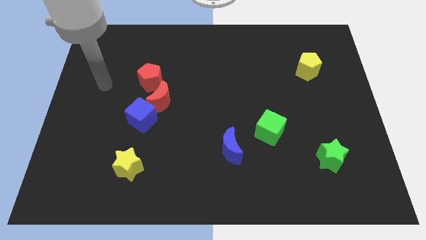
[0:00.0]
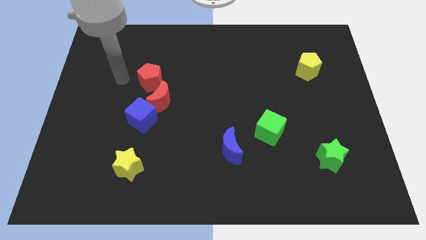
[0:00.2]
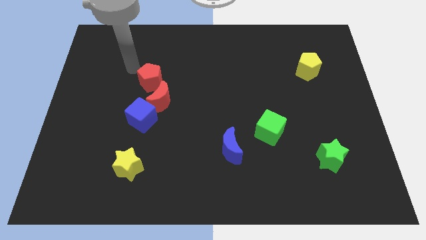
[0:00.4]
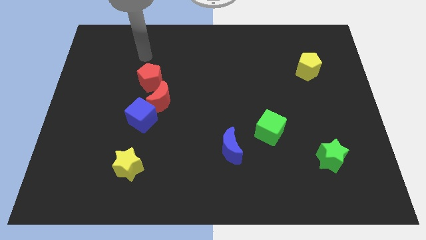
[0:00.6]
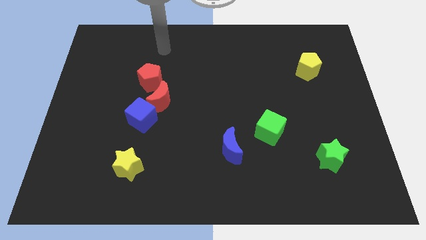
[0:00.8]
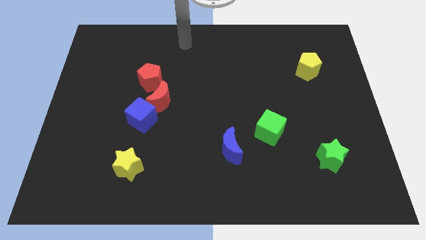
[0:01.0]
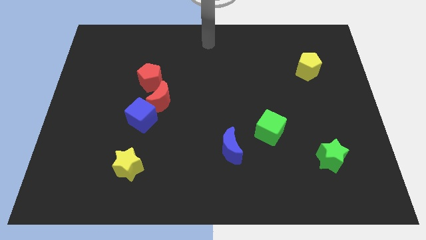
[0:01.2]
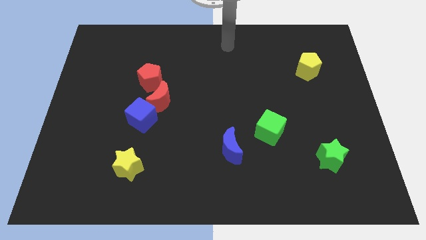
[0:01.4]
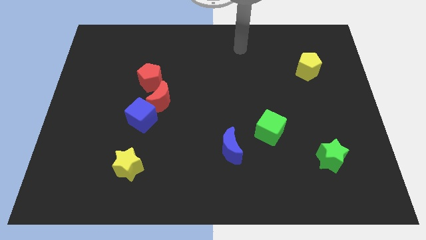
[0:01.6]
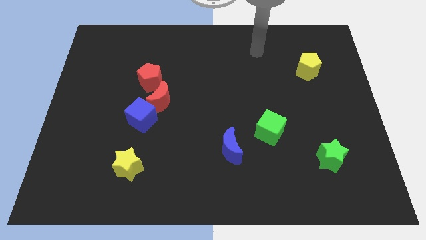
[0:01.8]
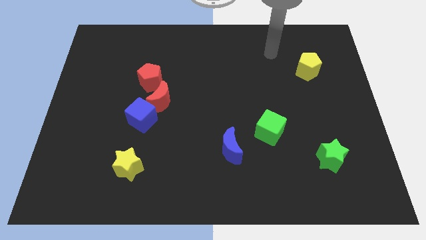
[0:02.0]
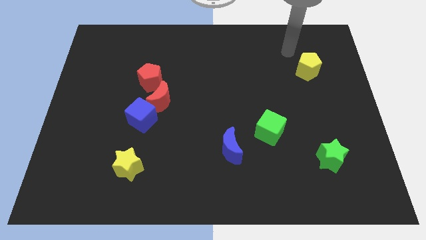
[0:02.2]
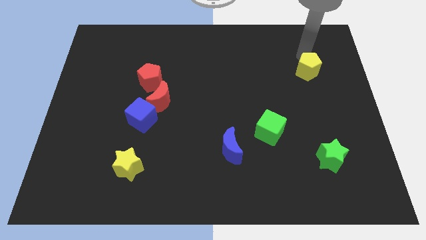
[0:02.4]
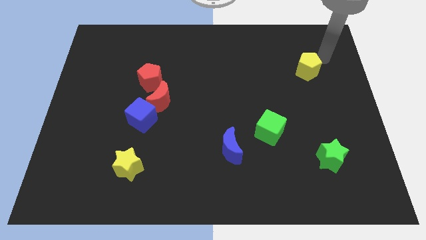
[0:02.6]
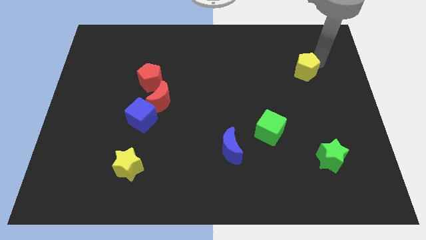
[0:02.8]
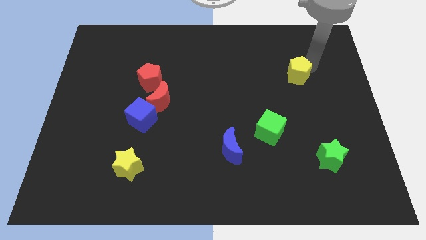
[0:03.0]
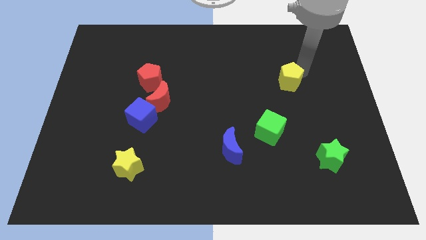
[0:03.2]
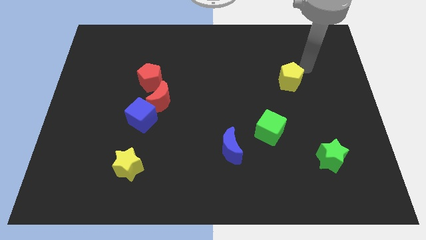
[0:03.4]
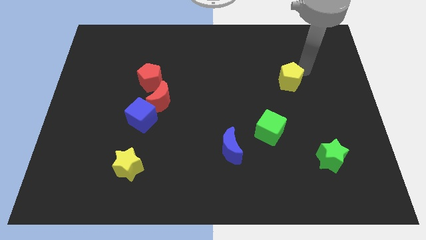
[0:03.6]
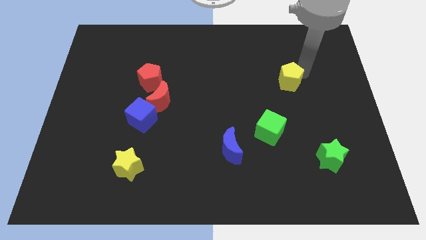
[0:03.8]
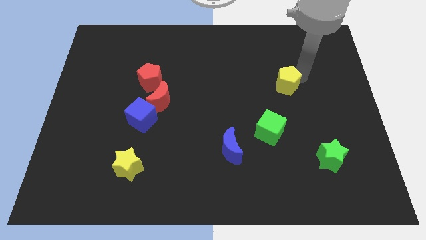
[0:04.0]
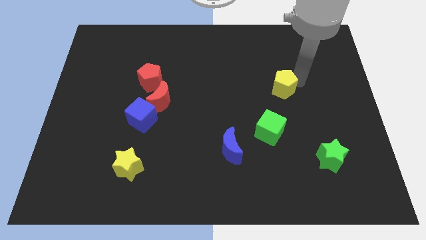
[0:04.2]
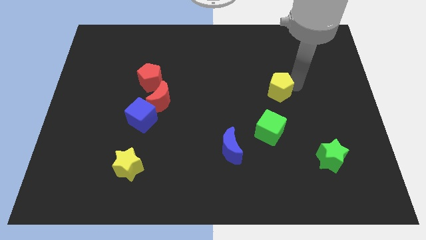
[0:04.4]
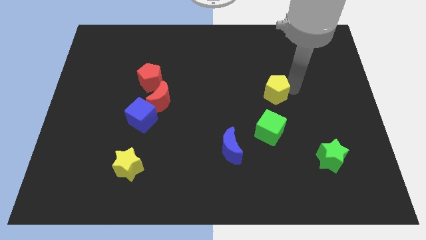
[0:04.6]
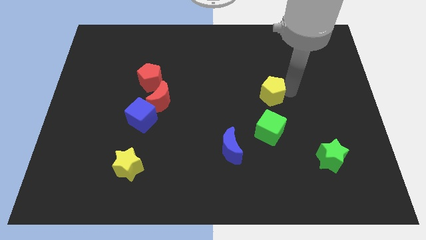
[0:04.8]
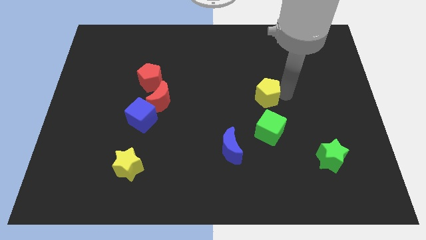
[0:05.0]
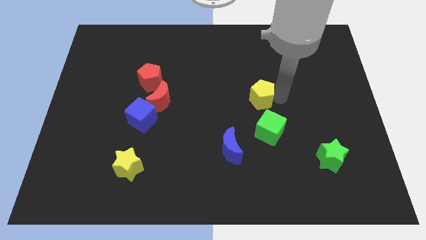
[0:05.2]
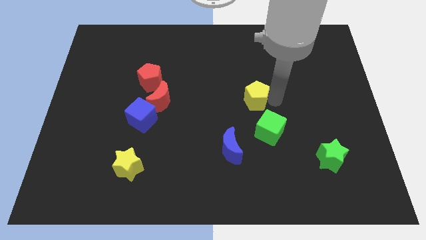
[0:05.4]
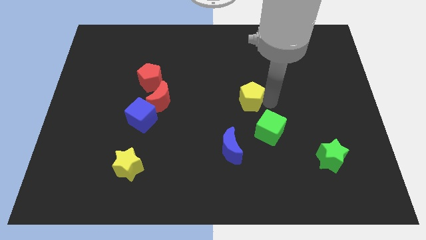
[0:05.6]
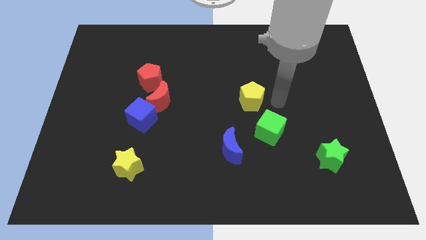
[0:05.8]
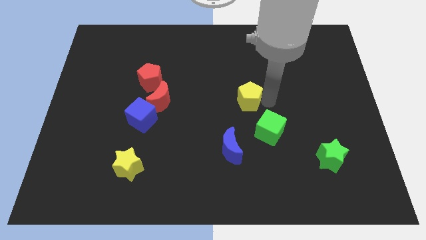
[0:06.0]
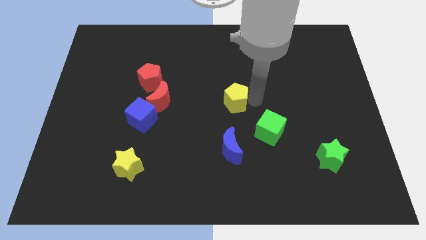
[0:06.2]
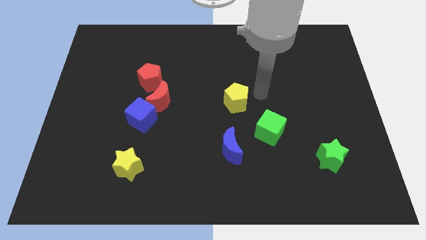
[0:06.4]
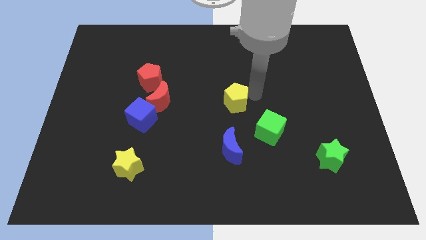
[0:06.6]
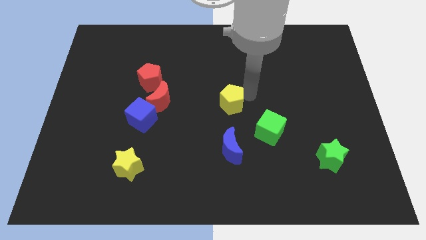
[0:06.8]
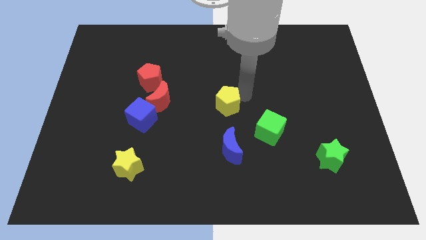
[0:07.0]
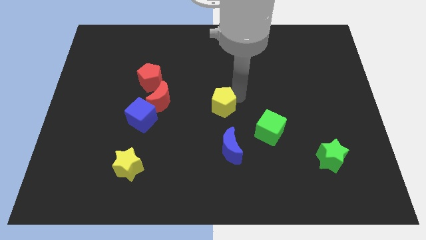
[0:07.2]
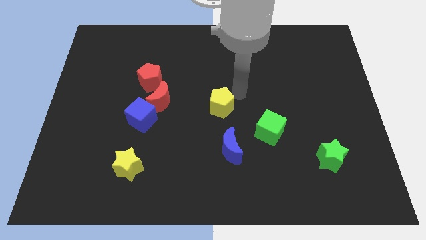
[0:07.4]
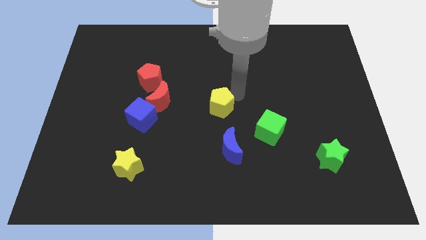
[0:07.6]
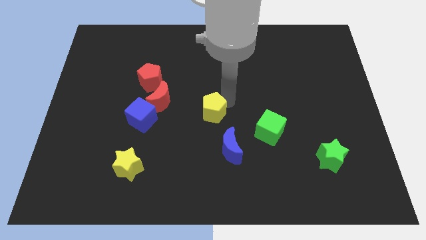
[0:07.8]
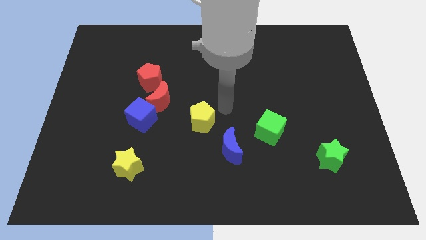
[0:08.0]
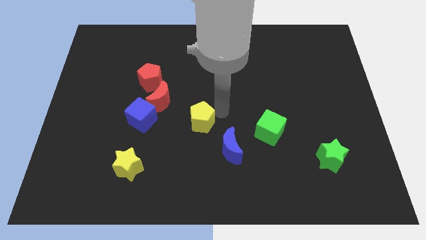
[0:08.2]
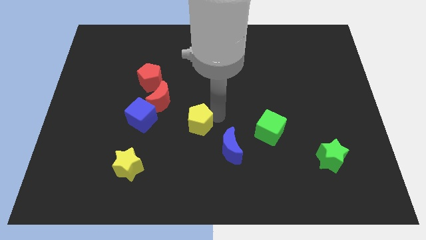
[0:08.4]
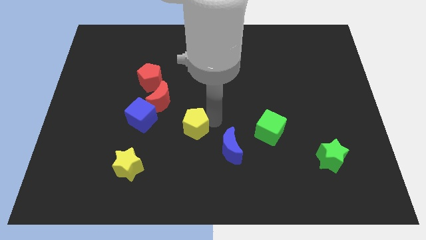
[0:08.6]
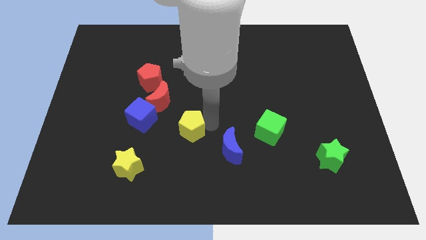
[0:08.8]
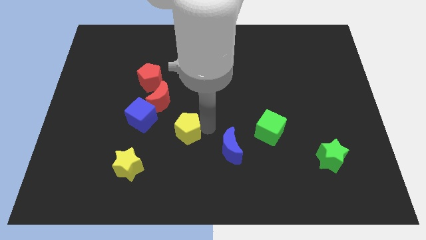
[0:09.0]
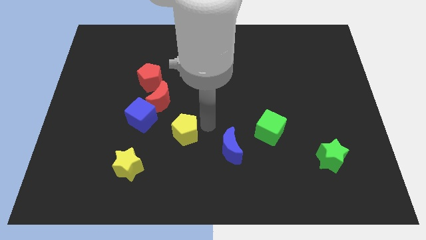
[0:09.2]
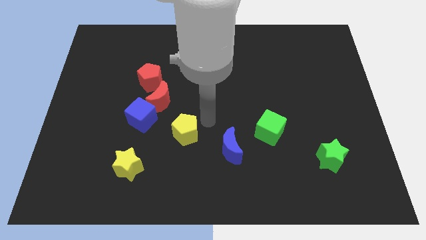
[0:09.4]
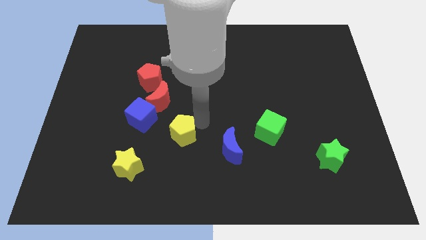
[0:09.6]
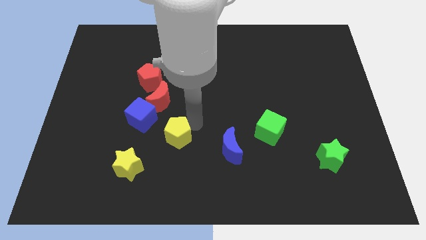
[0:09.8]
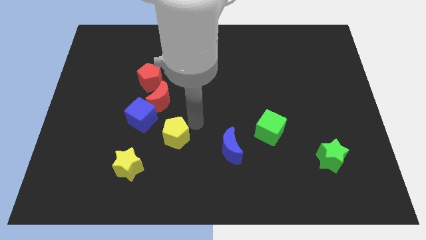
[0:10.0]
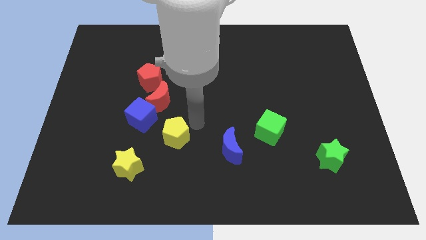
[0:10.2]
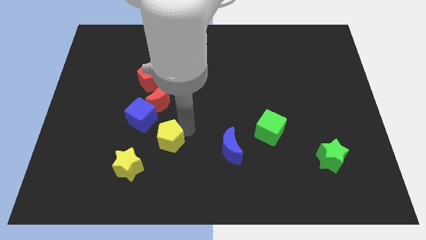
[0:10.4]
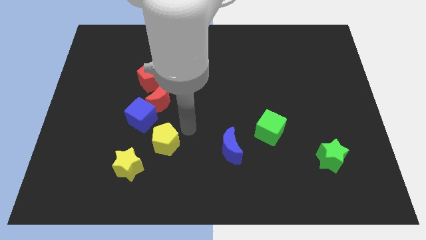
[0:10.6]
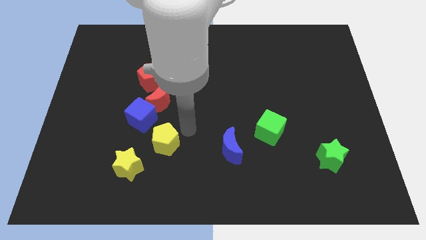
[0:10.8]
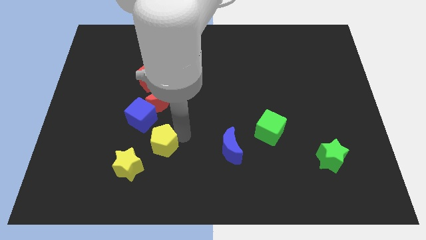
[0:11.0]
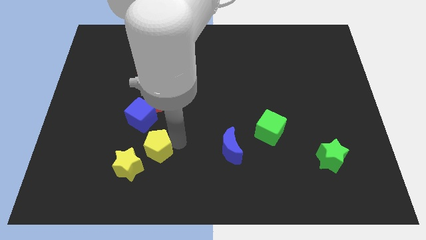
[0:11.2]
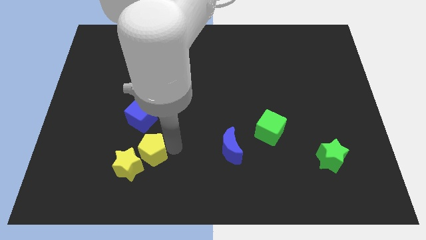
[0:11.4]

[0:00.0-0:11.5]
move the yellow pentagon towards the yellow star

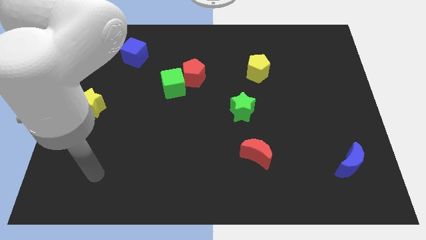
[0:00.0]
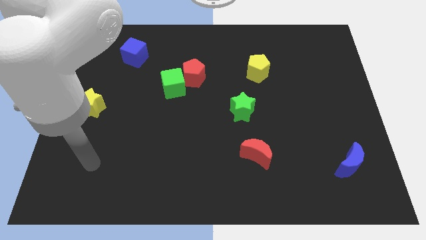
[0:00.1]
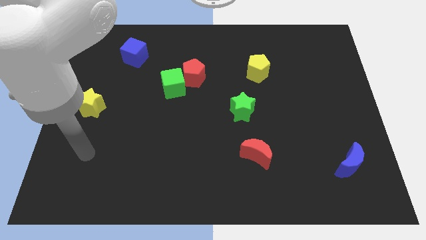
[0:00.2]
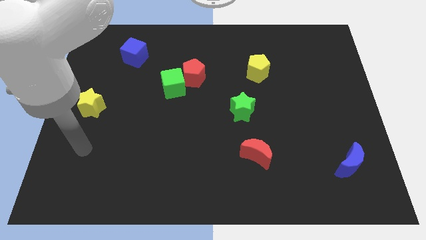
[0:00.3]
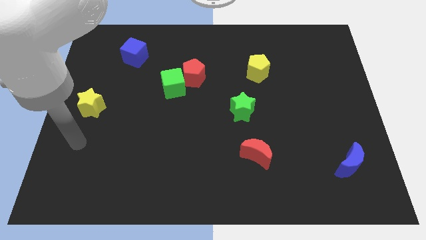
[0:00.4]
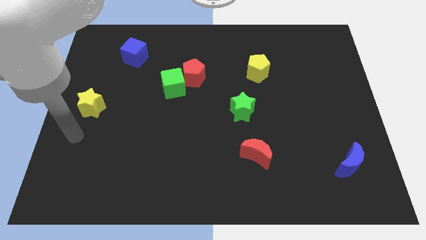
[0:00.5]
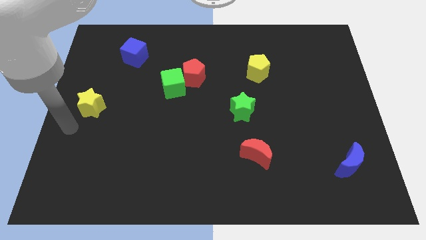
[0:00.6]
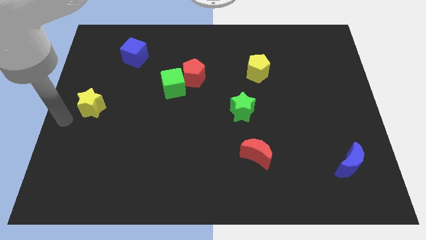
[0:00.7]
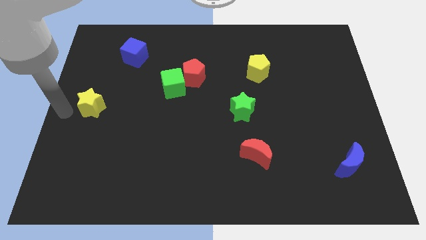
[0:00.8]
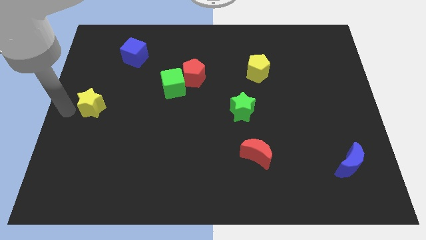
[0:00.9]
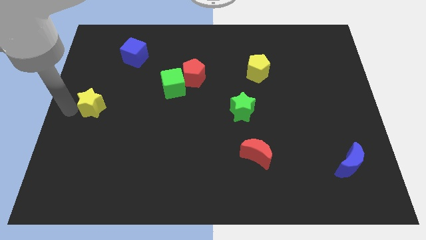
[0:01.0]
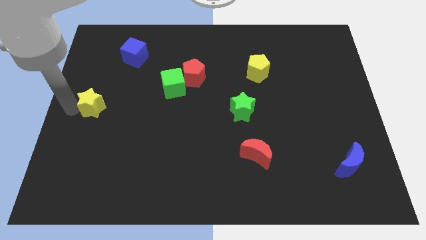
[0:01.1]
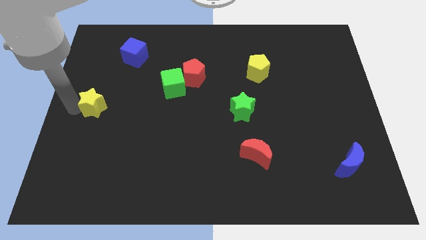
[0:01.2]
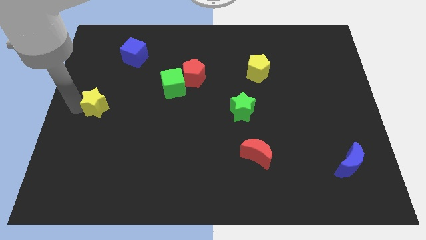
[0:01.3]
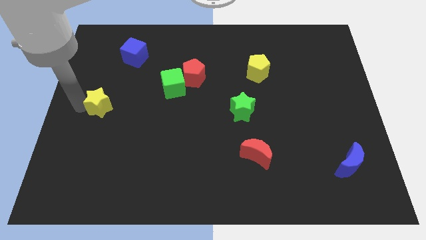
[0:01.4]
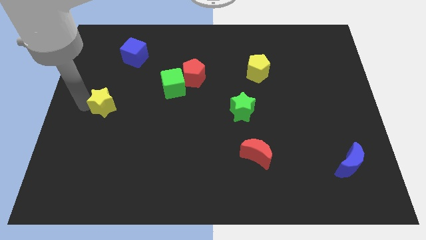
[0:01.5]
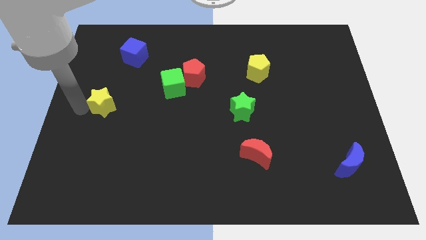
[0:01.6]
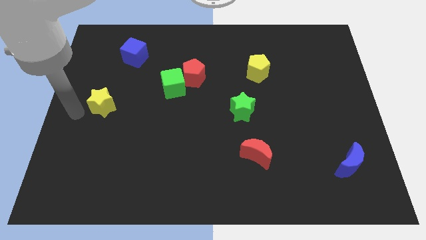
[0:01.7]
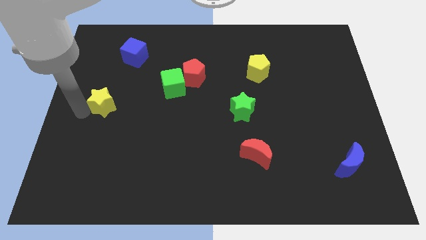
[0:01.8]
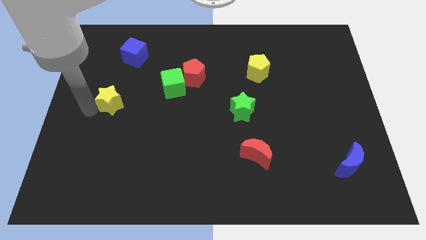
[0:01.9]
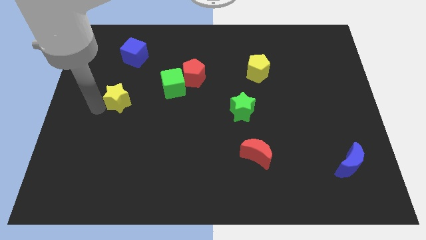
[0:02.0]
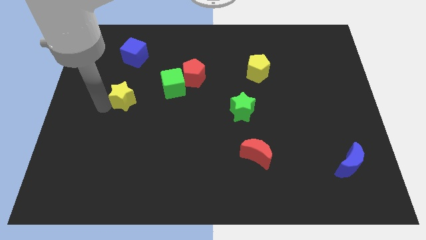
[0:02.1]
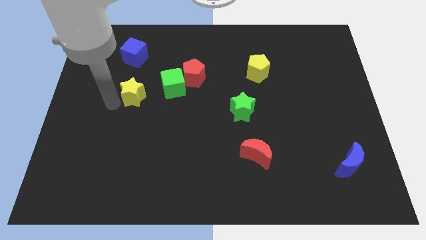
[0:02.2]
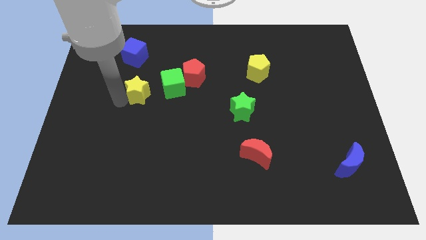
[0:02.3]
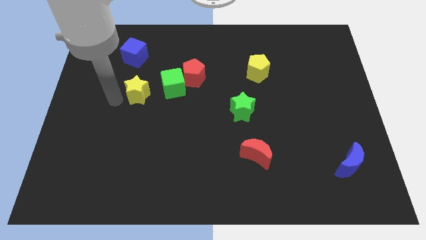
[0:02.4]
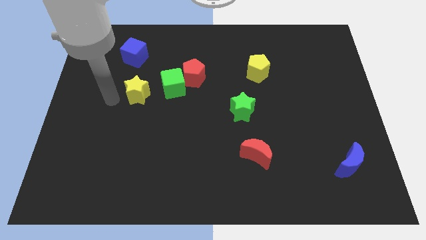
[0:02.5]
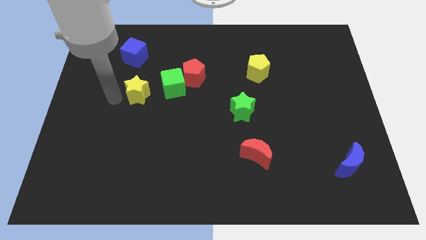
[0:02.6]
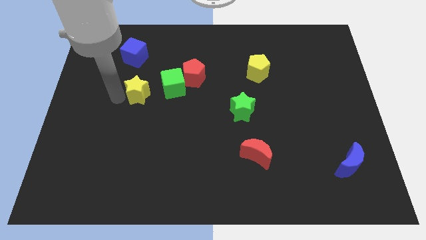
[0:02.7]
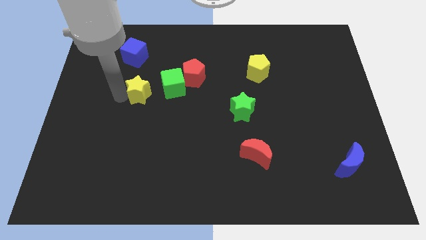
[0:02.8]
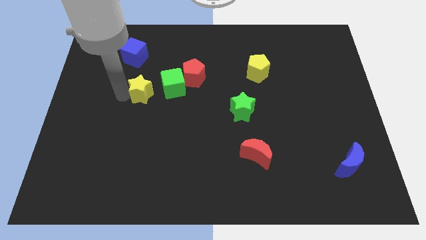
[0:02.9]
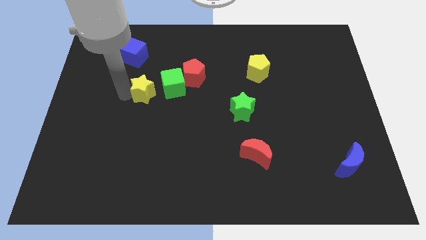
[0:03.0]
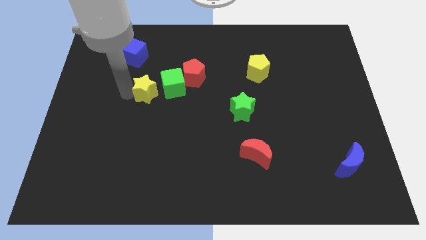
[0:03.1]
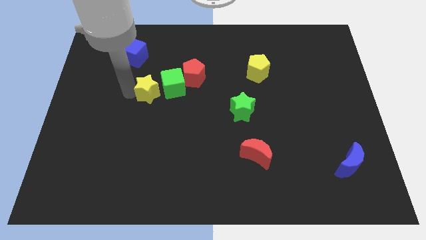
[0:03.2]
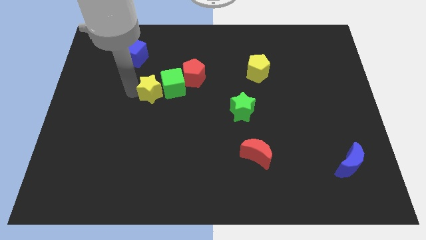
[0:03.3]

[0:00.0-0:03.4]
push the yellow star to the green cube
